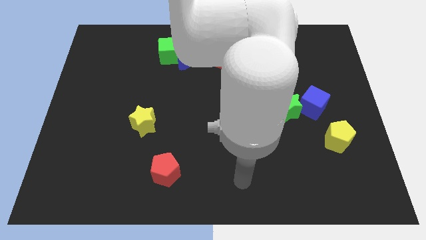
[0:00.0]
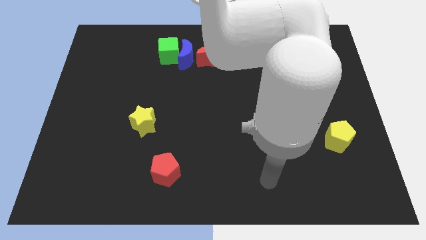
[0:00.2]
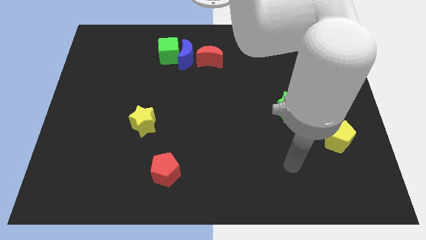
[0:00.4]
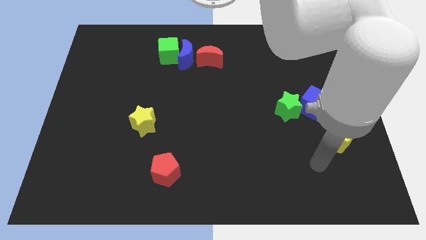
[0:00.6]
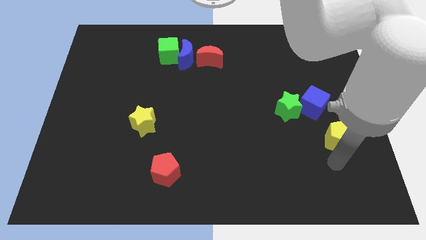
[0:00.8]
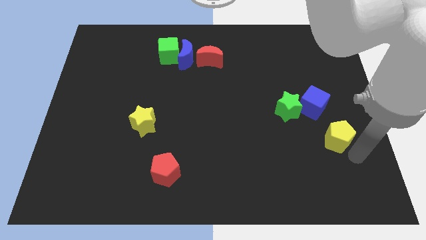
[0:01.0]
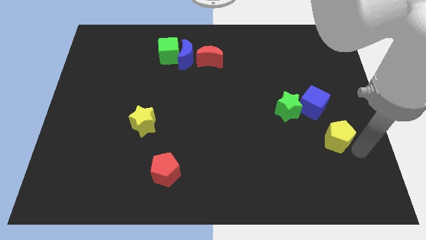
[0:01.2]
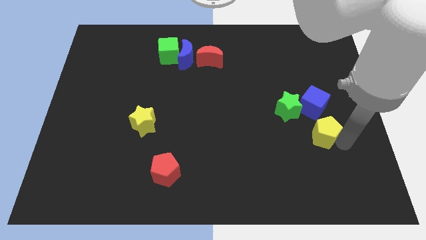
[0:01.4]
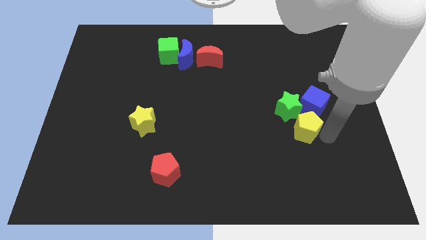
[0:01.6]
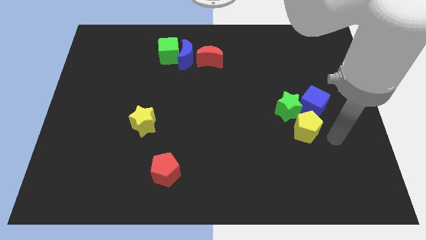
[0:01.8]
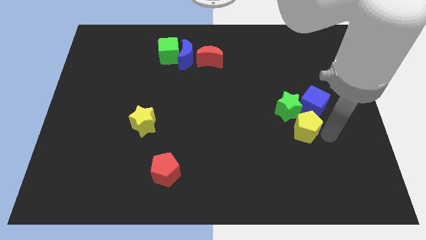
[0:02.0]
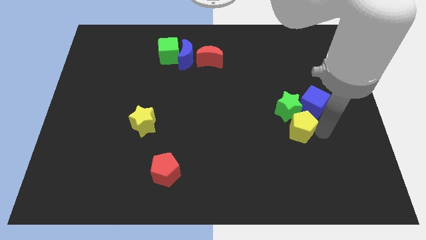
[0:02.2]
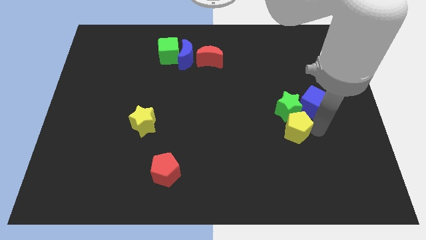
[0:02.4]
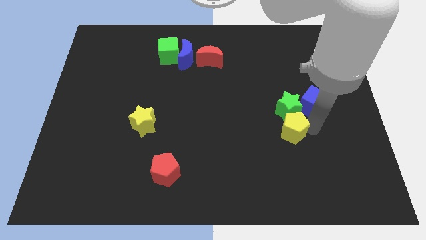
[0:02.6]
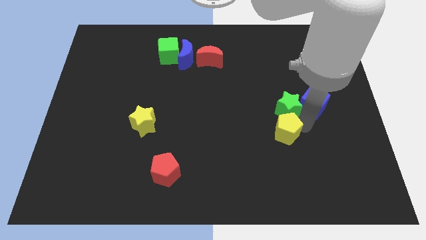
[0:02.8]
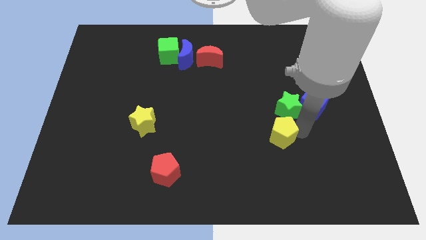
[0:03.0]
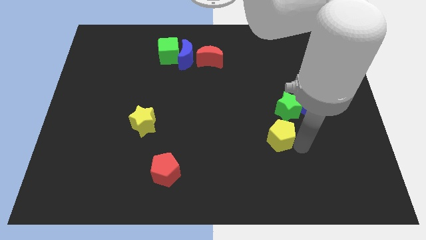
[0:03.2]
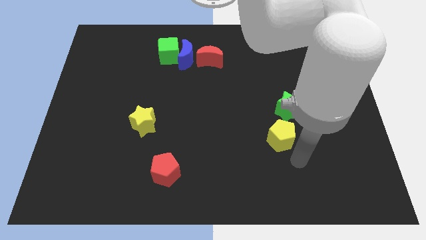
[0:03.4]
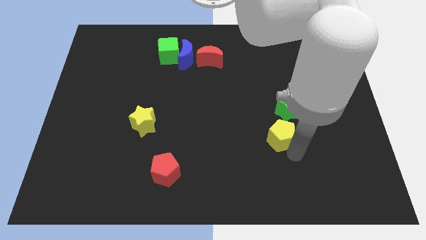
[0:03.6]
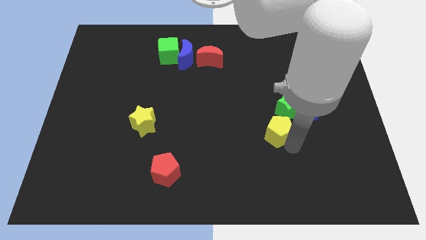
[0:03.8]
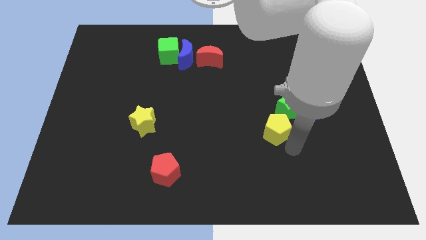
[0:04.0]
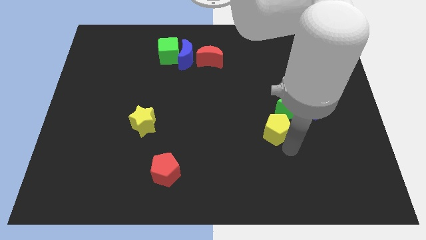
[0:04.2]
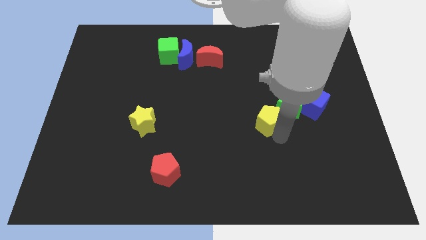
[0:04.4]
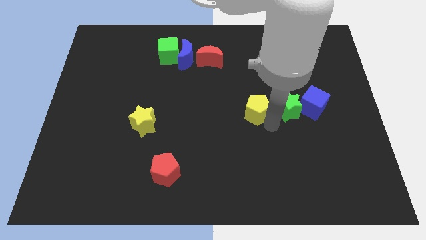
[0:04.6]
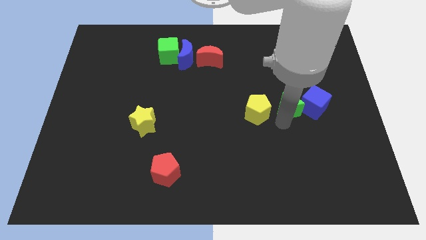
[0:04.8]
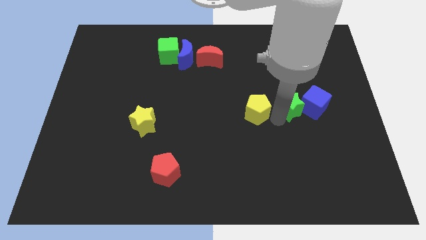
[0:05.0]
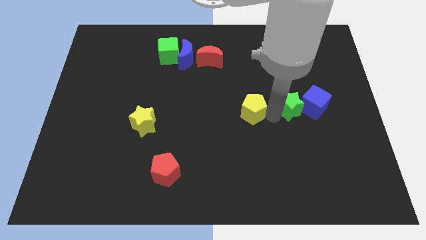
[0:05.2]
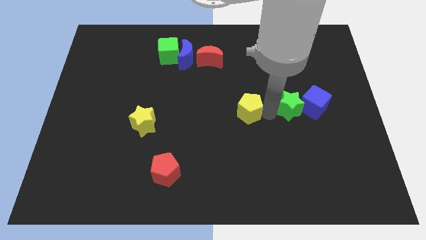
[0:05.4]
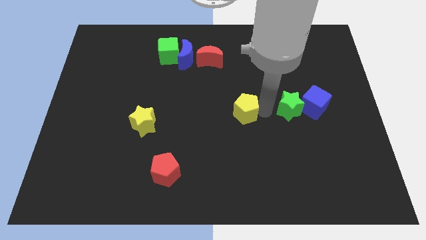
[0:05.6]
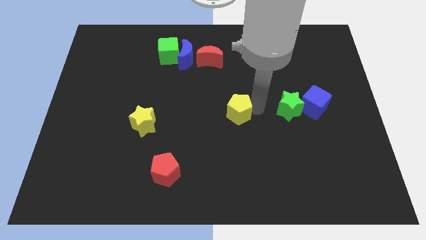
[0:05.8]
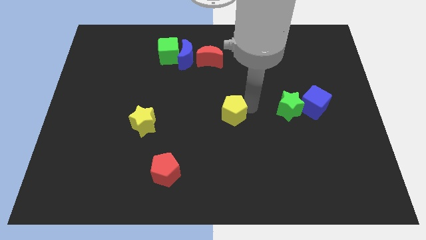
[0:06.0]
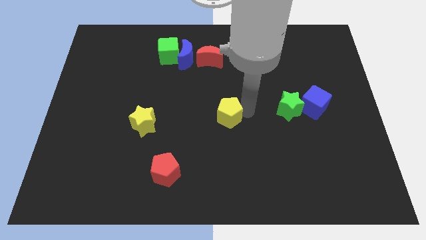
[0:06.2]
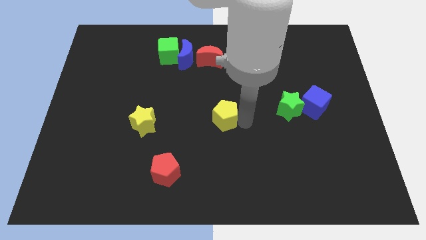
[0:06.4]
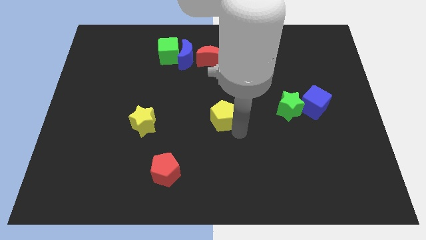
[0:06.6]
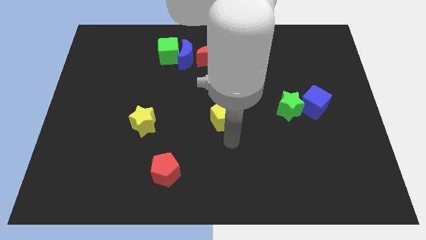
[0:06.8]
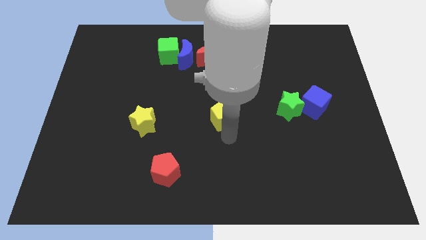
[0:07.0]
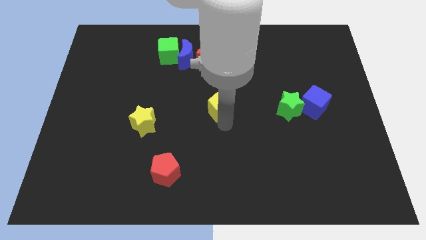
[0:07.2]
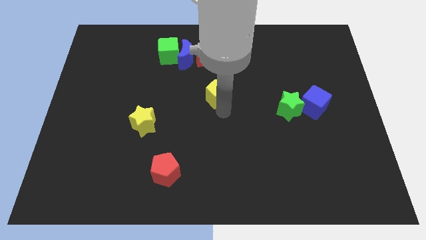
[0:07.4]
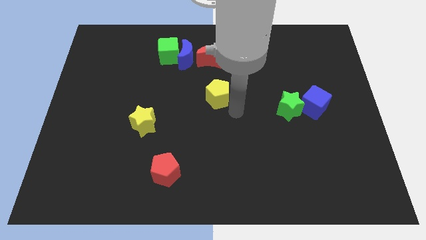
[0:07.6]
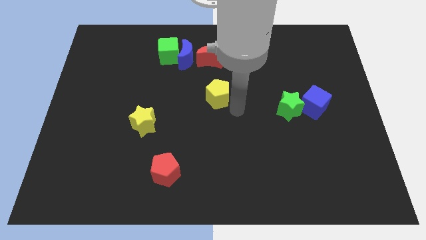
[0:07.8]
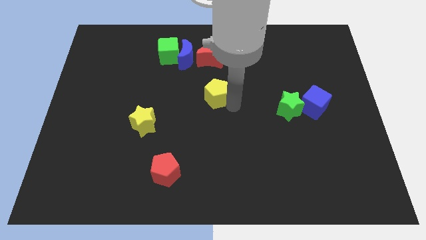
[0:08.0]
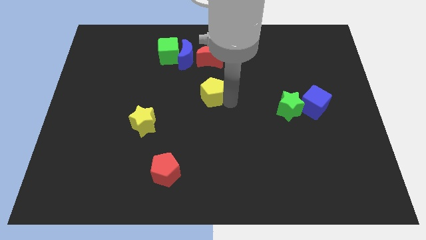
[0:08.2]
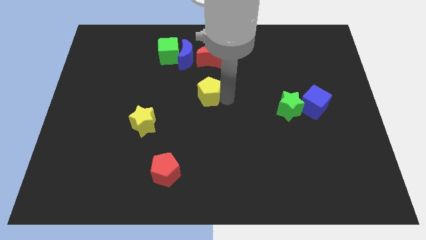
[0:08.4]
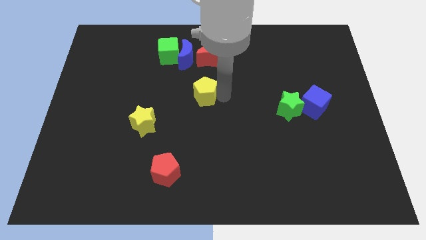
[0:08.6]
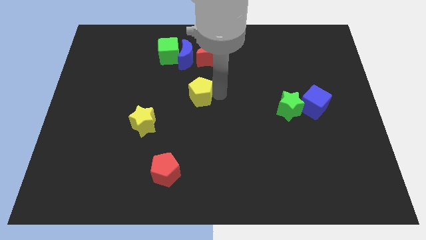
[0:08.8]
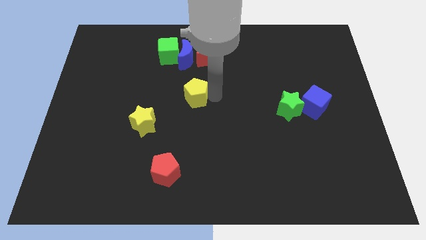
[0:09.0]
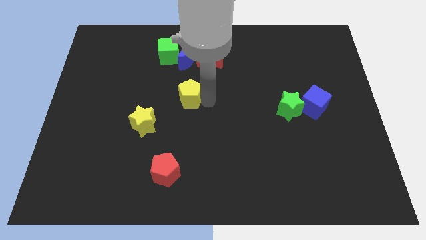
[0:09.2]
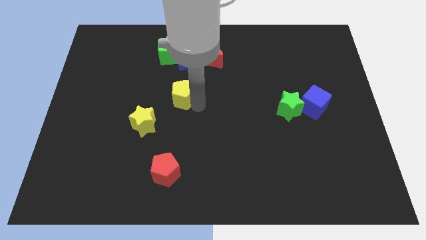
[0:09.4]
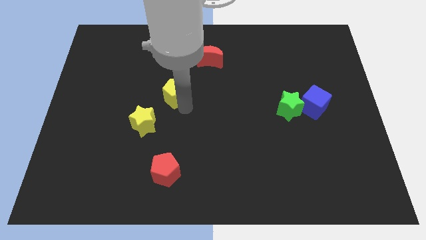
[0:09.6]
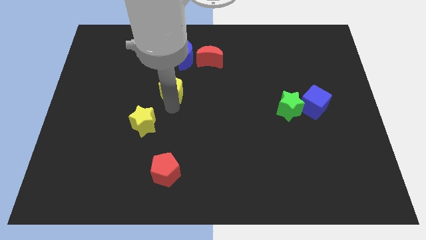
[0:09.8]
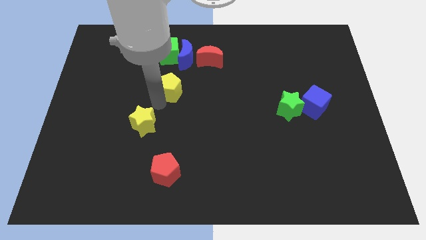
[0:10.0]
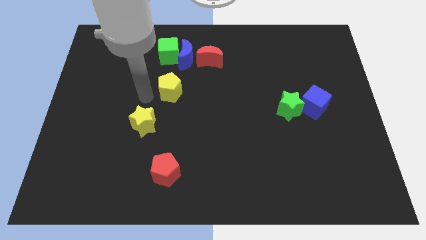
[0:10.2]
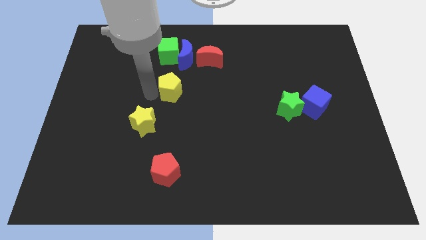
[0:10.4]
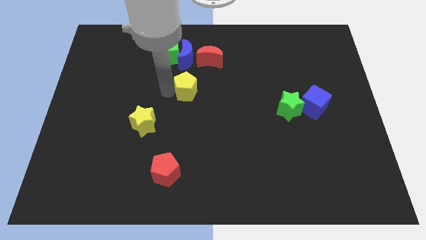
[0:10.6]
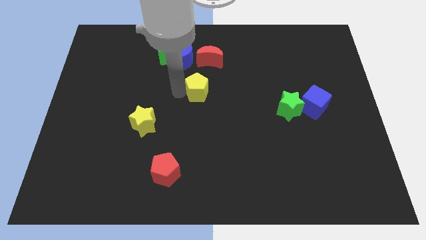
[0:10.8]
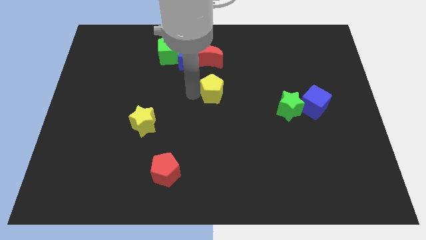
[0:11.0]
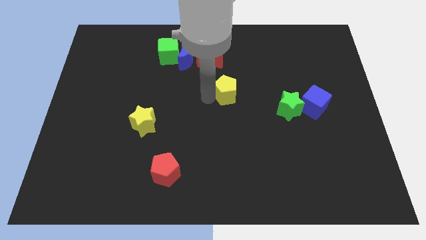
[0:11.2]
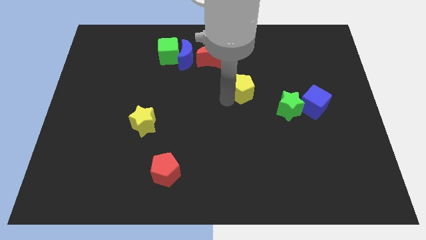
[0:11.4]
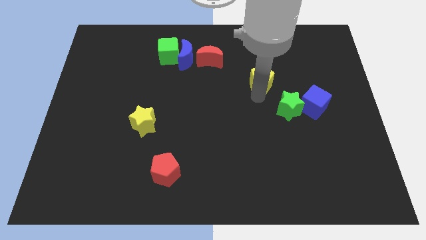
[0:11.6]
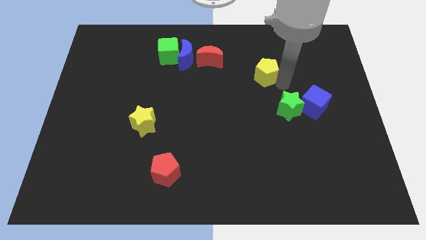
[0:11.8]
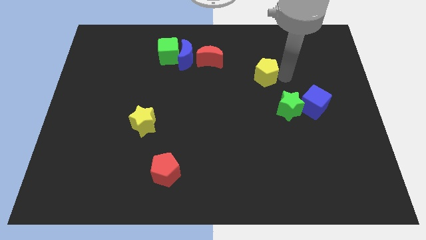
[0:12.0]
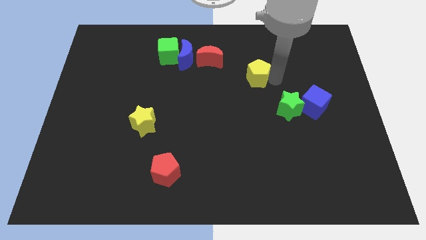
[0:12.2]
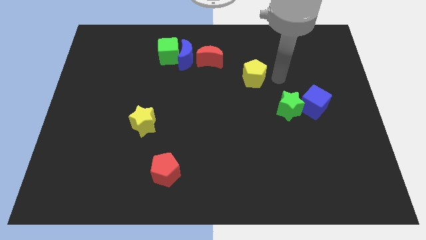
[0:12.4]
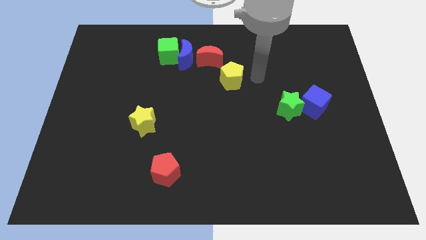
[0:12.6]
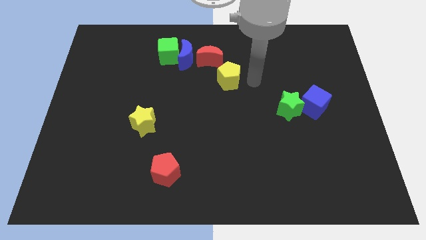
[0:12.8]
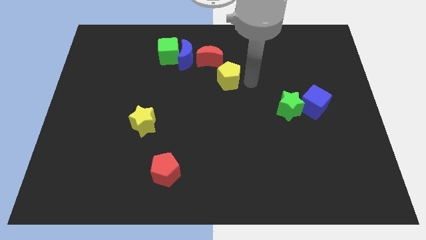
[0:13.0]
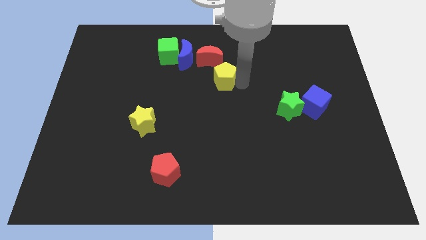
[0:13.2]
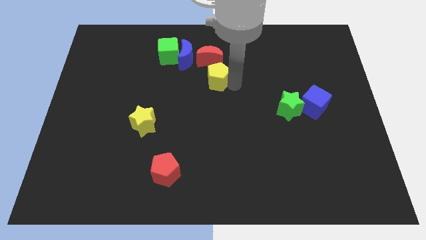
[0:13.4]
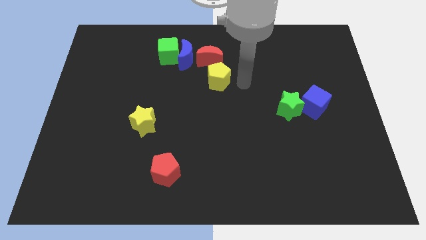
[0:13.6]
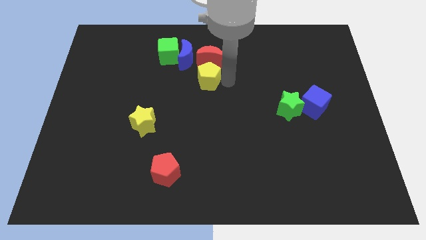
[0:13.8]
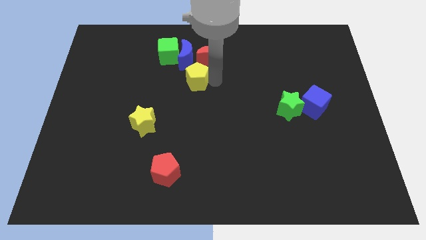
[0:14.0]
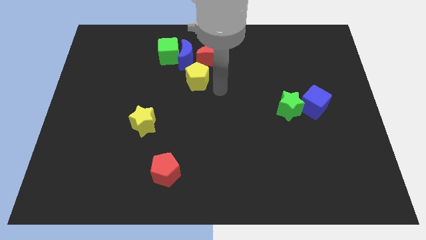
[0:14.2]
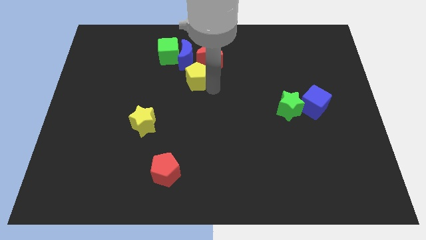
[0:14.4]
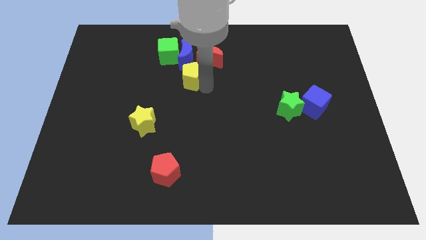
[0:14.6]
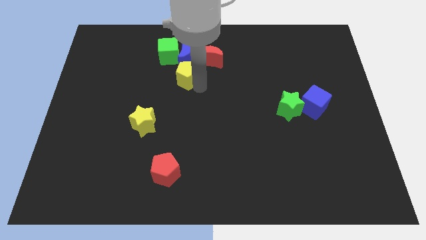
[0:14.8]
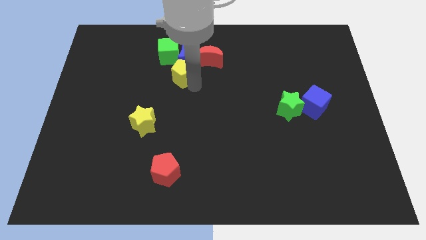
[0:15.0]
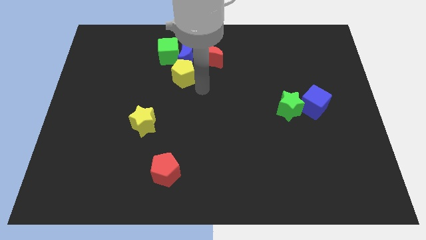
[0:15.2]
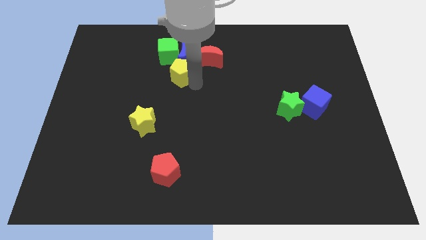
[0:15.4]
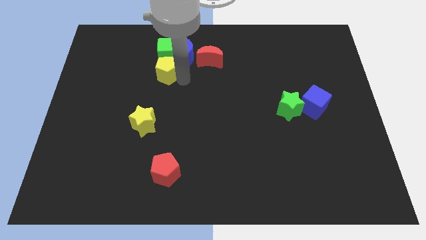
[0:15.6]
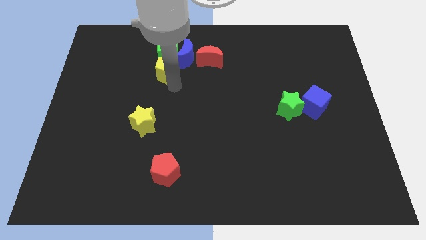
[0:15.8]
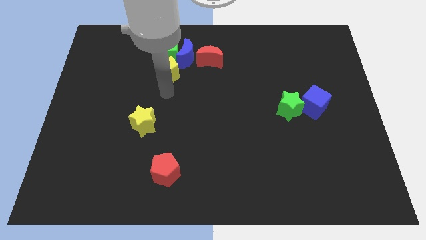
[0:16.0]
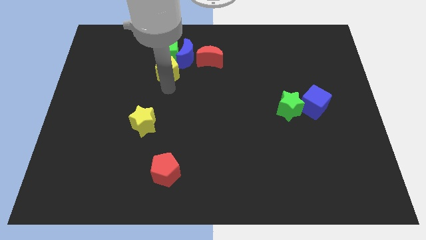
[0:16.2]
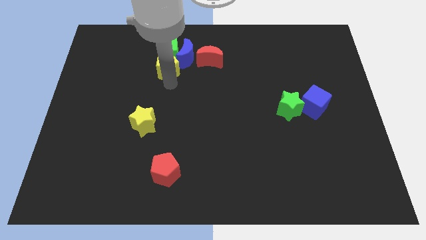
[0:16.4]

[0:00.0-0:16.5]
move the yellow pentagon close to the green cube
